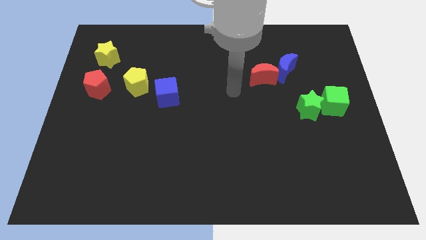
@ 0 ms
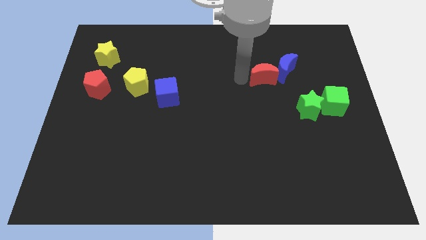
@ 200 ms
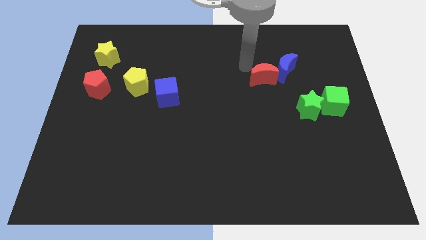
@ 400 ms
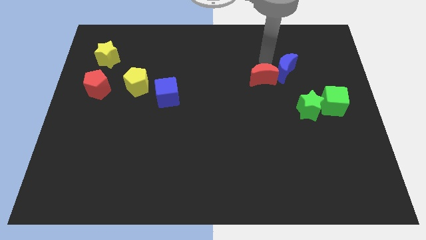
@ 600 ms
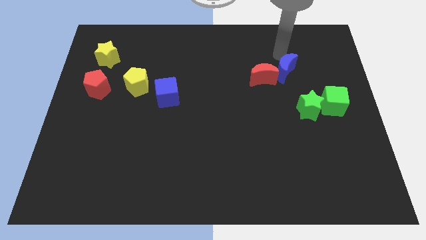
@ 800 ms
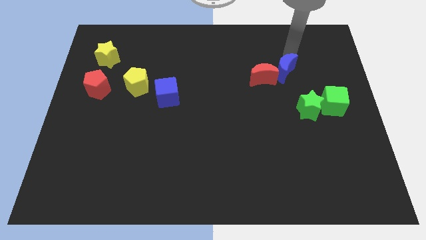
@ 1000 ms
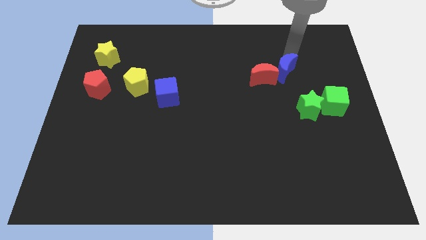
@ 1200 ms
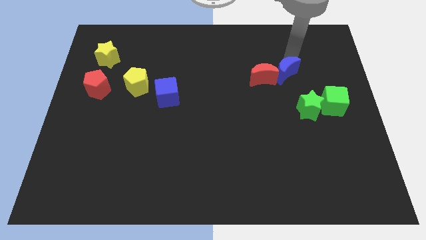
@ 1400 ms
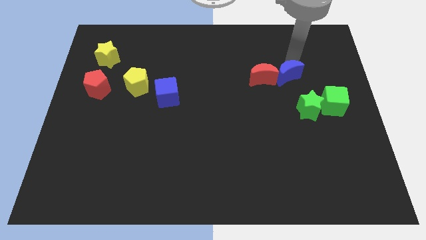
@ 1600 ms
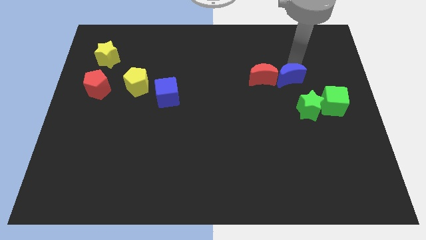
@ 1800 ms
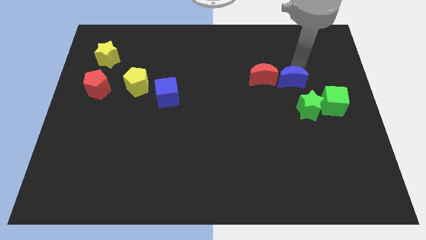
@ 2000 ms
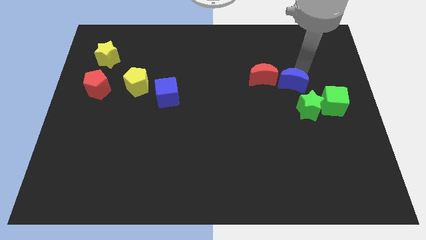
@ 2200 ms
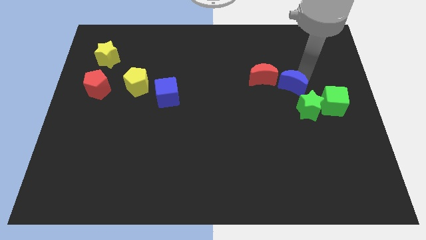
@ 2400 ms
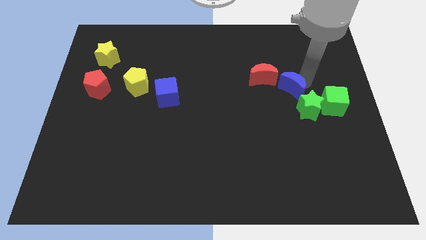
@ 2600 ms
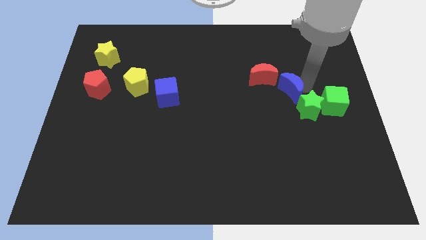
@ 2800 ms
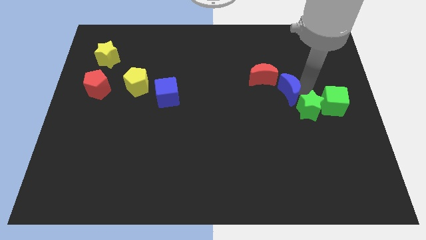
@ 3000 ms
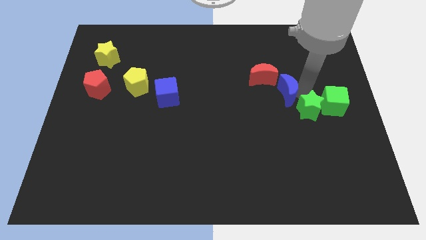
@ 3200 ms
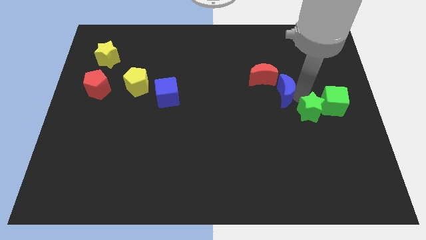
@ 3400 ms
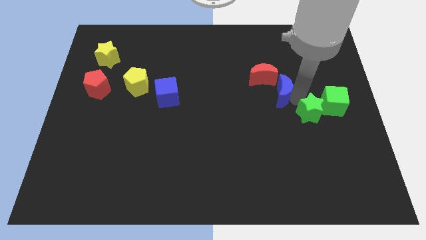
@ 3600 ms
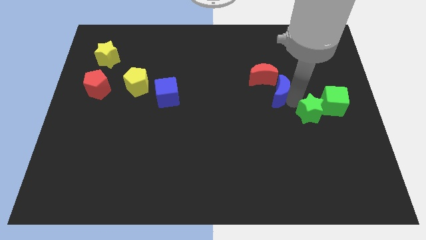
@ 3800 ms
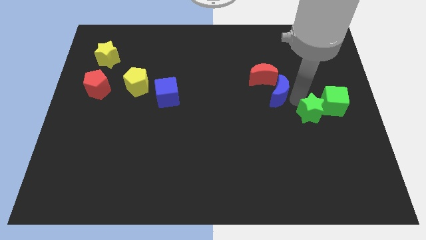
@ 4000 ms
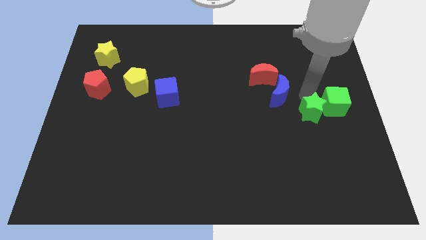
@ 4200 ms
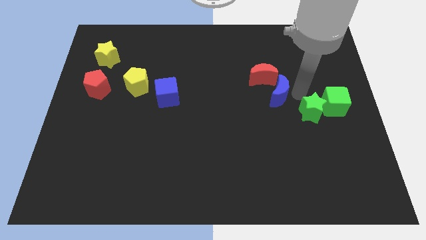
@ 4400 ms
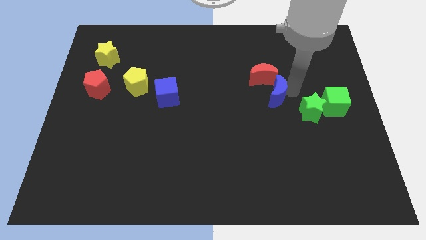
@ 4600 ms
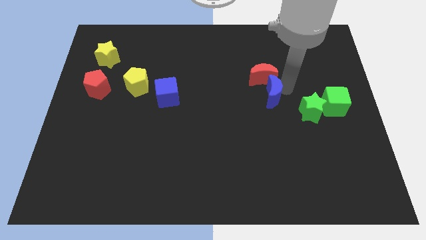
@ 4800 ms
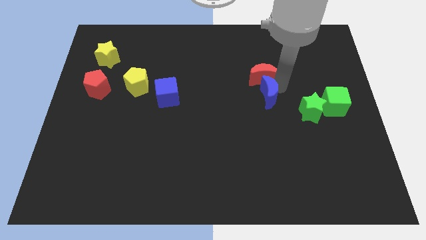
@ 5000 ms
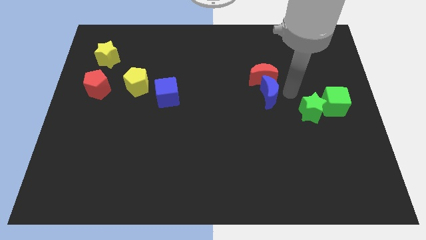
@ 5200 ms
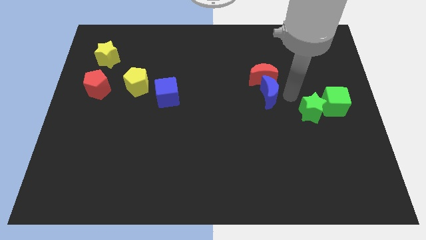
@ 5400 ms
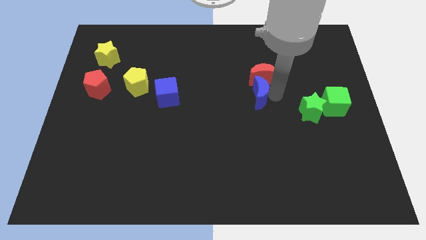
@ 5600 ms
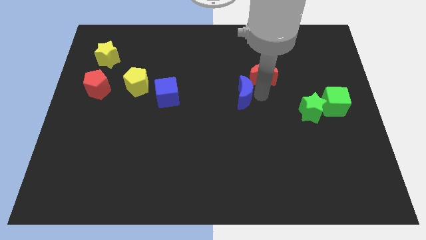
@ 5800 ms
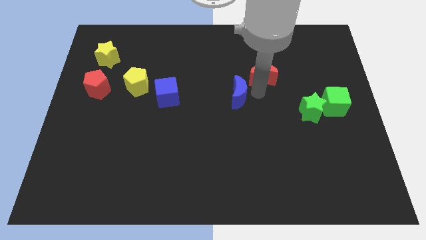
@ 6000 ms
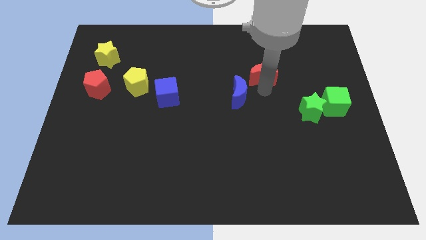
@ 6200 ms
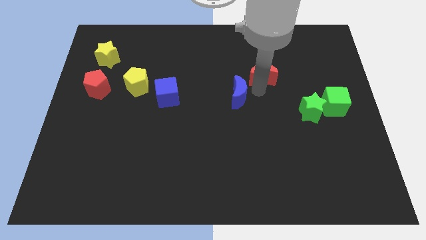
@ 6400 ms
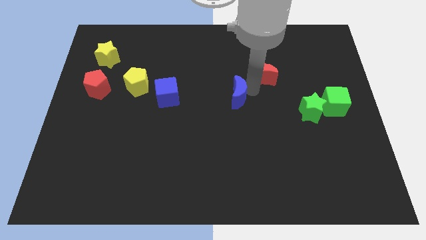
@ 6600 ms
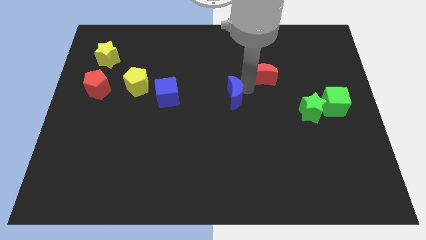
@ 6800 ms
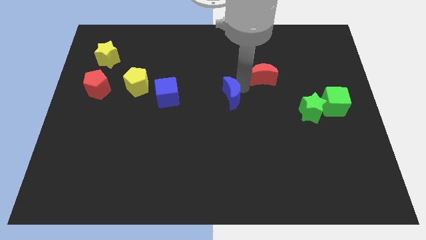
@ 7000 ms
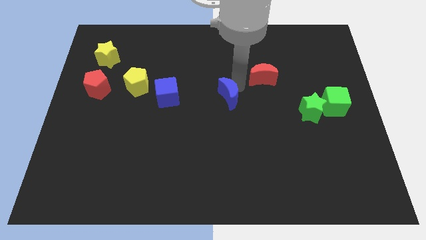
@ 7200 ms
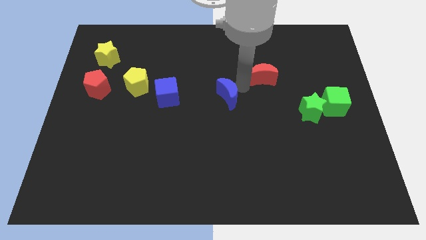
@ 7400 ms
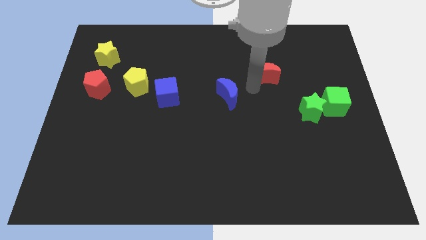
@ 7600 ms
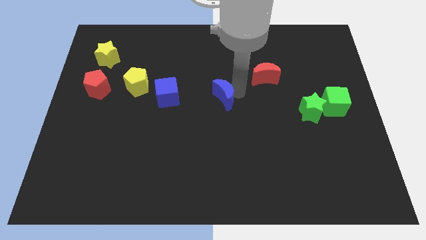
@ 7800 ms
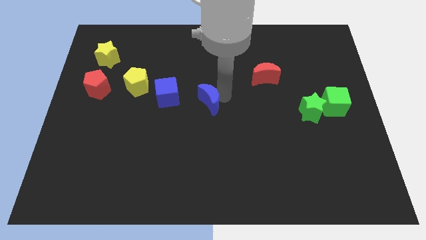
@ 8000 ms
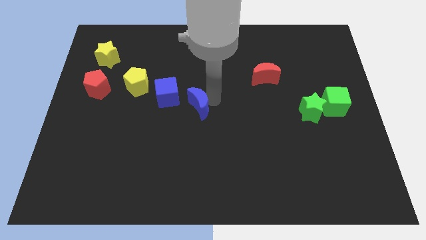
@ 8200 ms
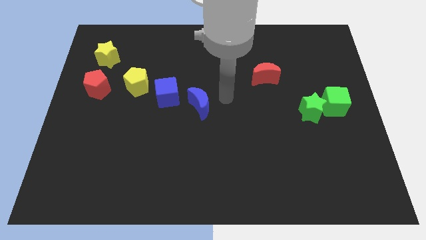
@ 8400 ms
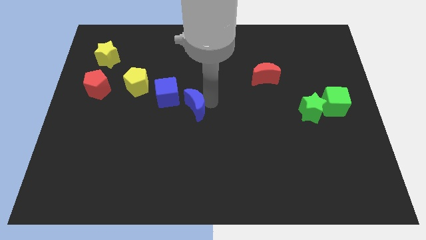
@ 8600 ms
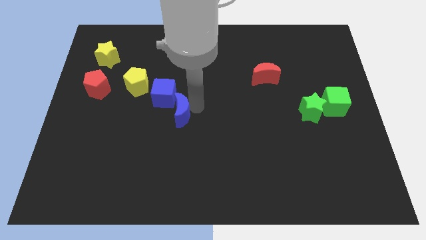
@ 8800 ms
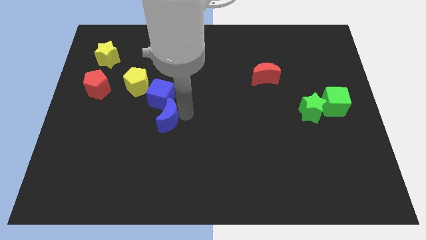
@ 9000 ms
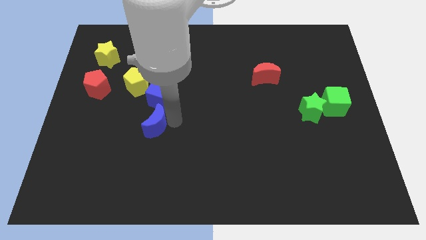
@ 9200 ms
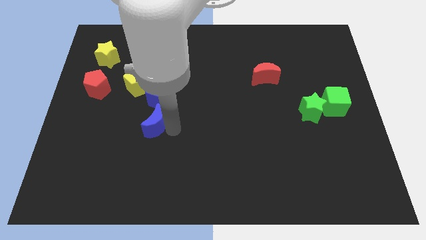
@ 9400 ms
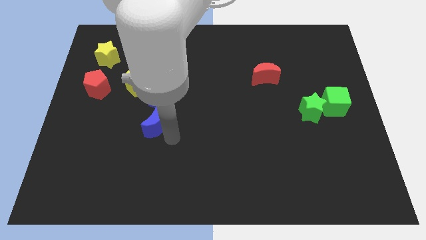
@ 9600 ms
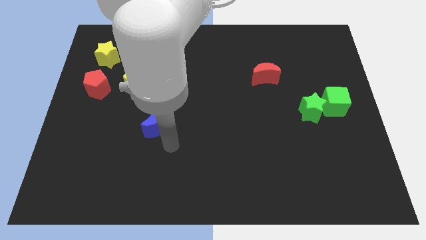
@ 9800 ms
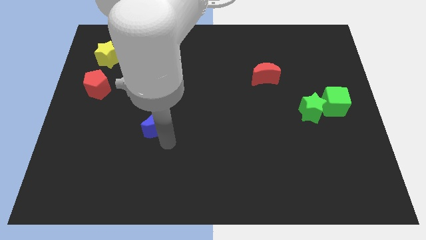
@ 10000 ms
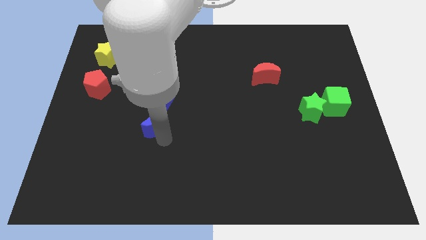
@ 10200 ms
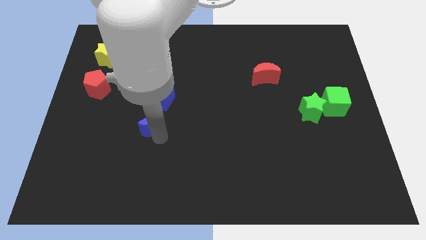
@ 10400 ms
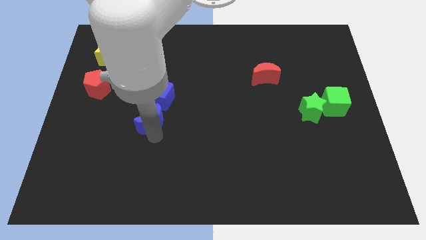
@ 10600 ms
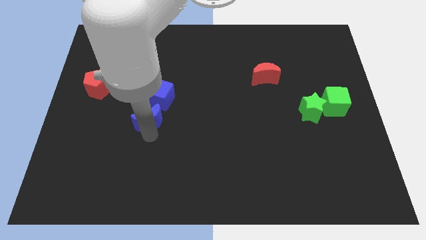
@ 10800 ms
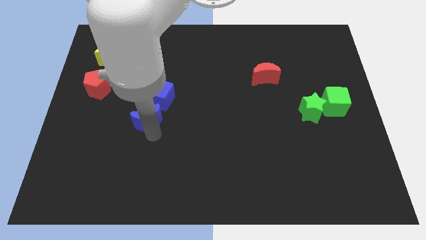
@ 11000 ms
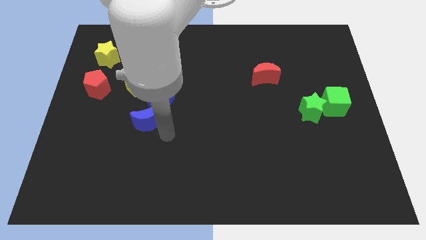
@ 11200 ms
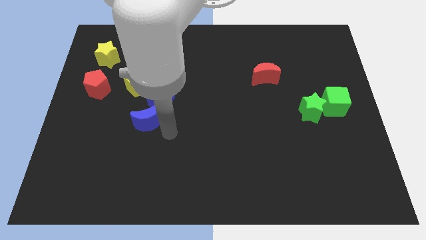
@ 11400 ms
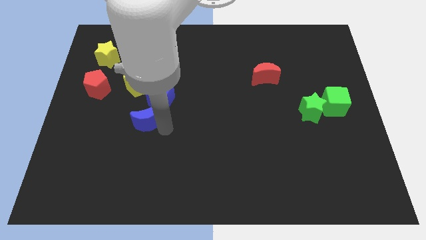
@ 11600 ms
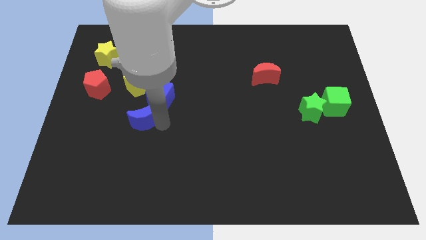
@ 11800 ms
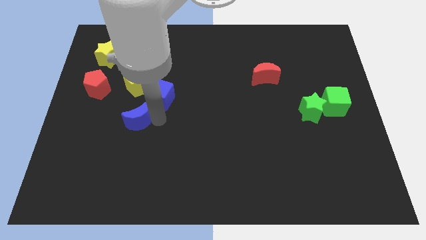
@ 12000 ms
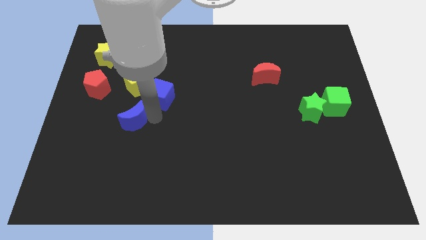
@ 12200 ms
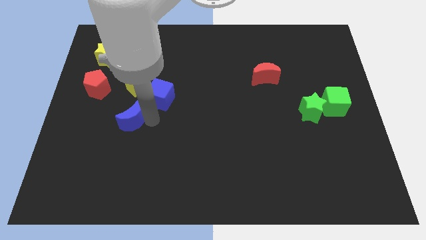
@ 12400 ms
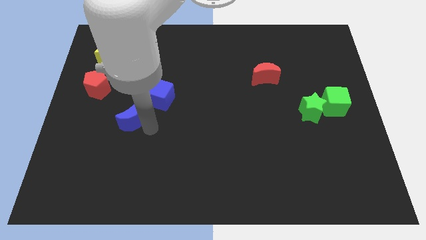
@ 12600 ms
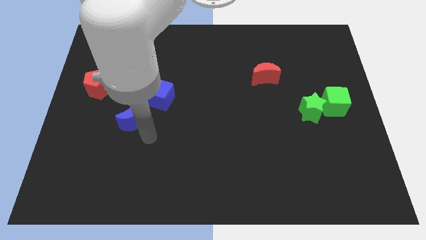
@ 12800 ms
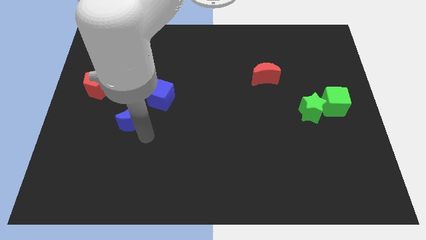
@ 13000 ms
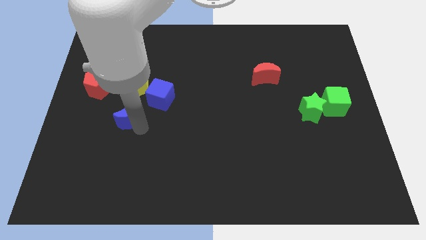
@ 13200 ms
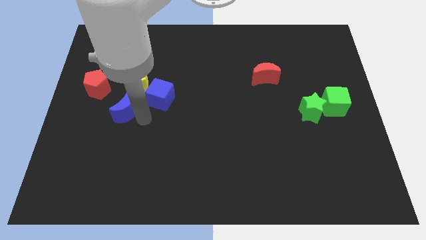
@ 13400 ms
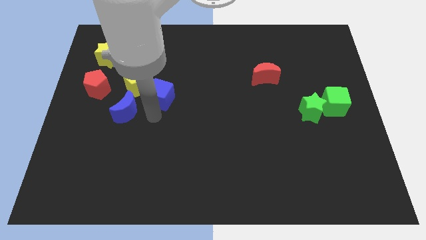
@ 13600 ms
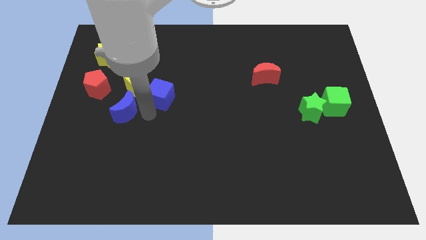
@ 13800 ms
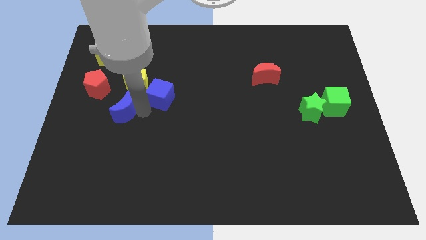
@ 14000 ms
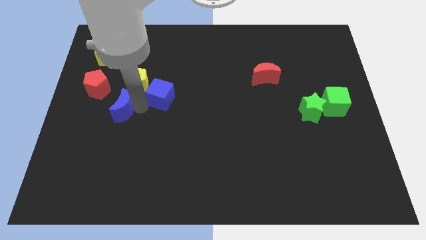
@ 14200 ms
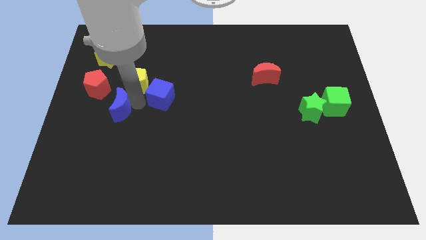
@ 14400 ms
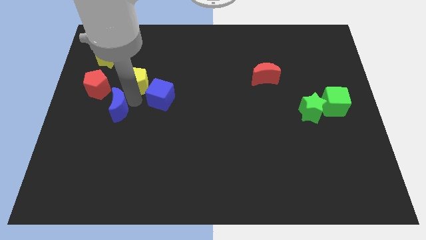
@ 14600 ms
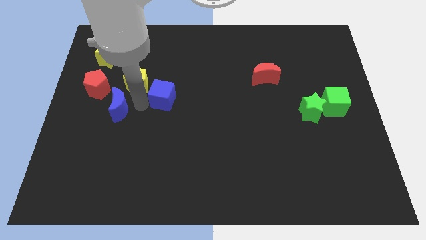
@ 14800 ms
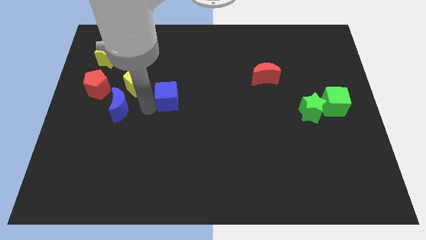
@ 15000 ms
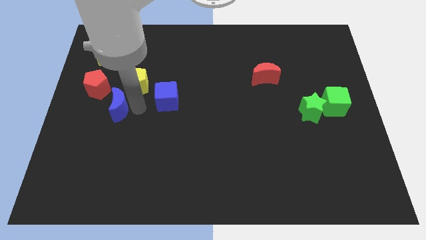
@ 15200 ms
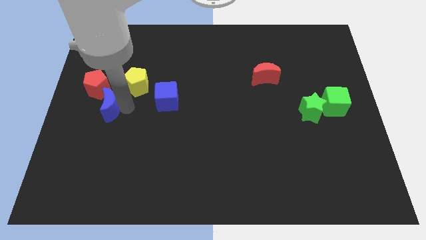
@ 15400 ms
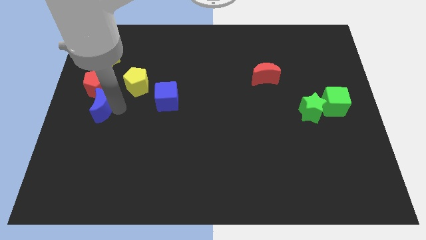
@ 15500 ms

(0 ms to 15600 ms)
slide the blue moon to the center left
